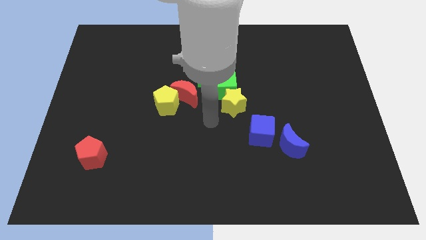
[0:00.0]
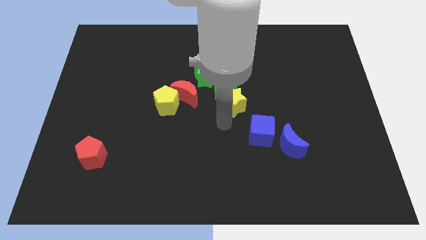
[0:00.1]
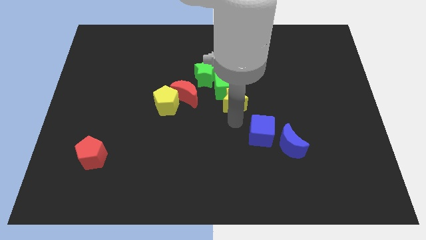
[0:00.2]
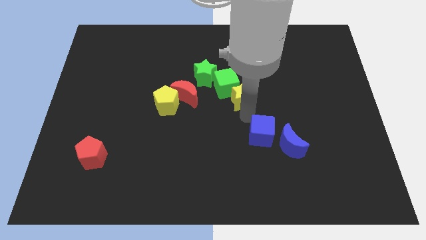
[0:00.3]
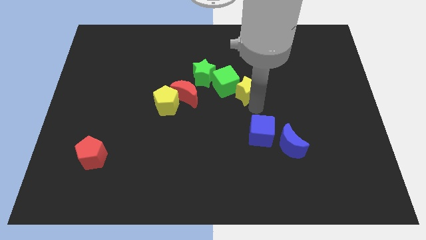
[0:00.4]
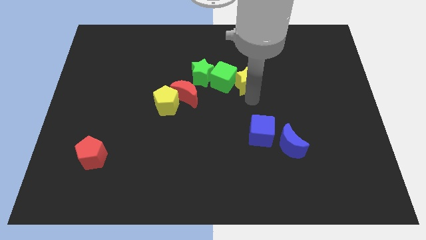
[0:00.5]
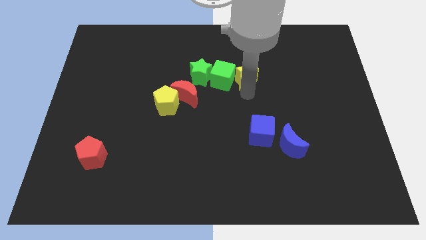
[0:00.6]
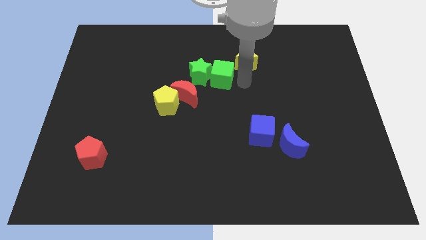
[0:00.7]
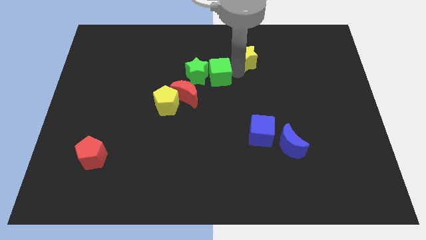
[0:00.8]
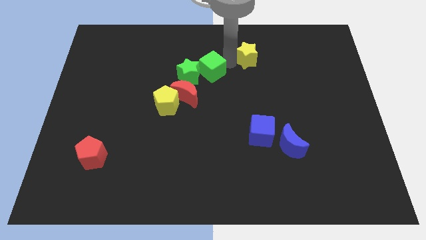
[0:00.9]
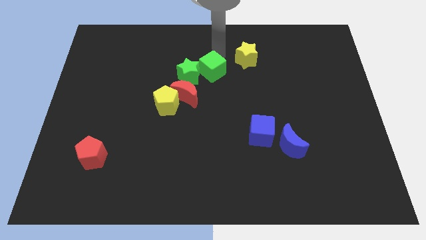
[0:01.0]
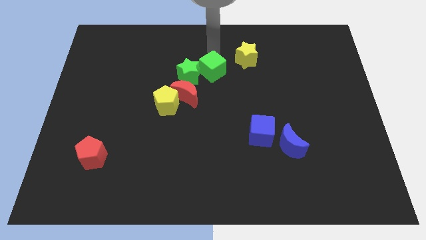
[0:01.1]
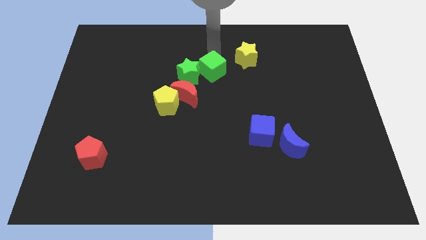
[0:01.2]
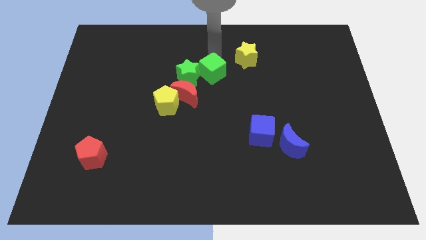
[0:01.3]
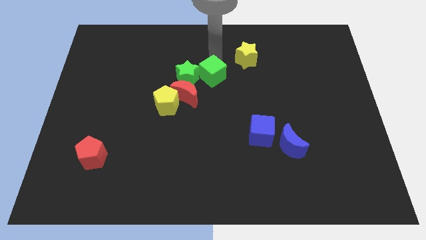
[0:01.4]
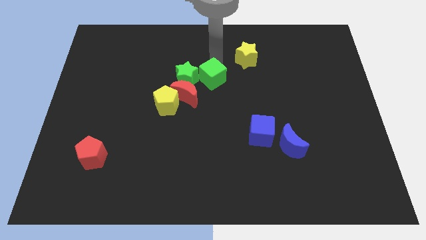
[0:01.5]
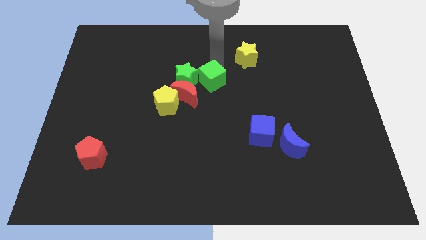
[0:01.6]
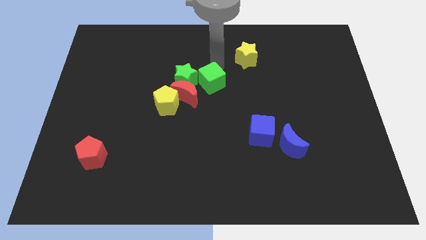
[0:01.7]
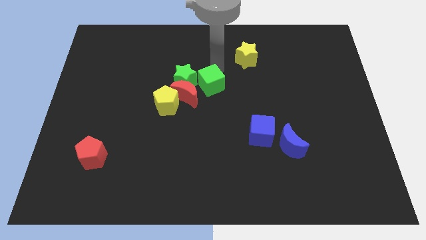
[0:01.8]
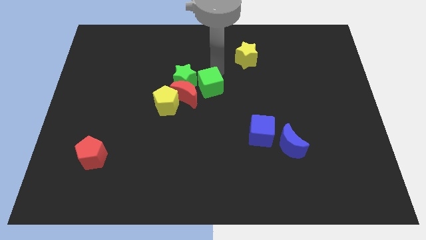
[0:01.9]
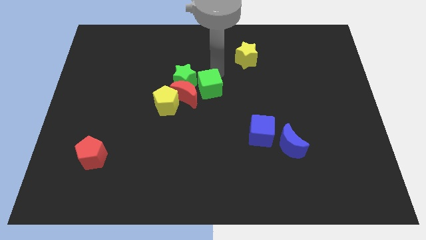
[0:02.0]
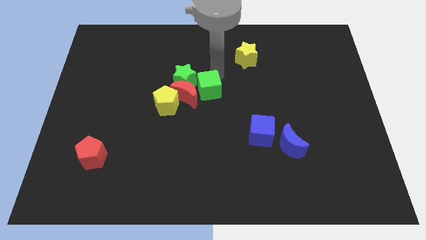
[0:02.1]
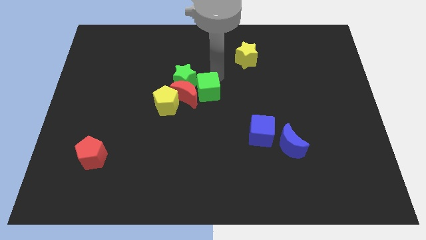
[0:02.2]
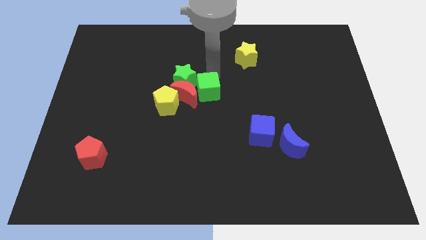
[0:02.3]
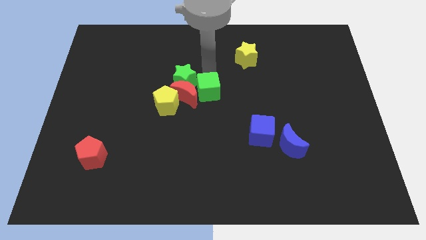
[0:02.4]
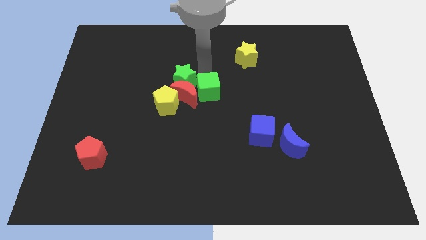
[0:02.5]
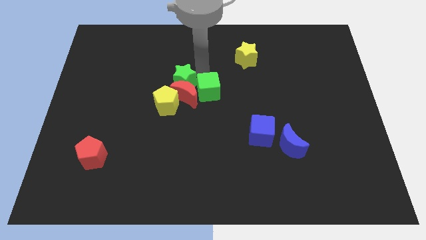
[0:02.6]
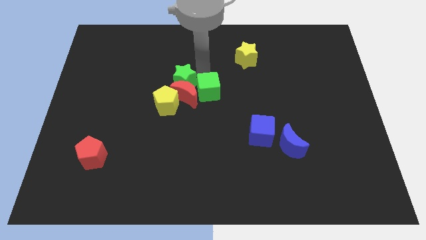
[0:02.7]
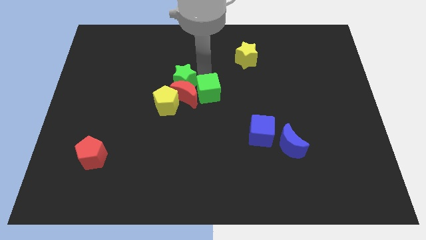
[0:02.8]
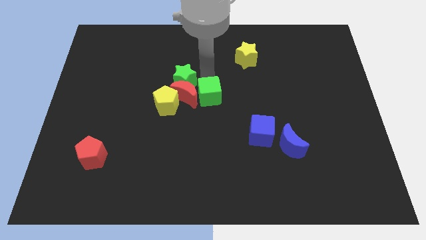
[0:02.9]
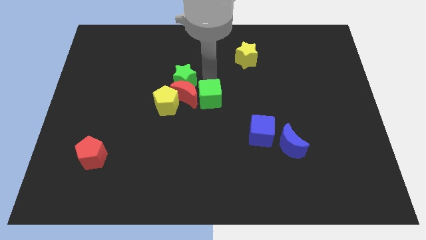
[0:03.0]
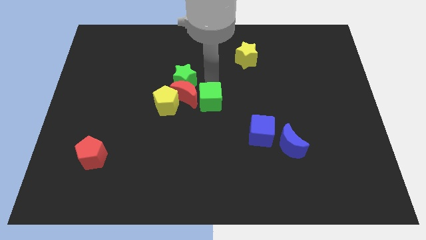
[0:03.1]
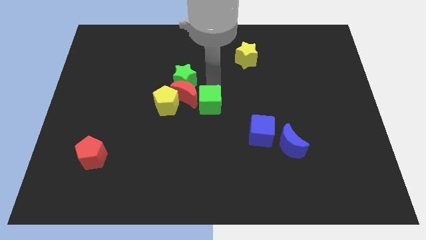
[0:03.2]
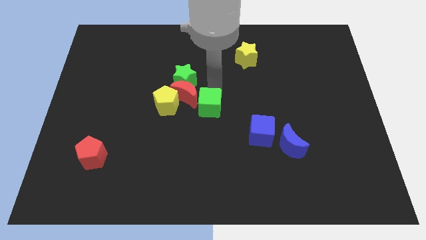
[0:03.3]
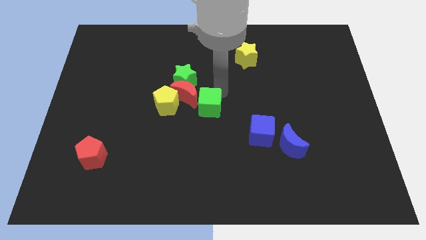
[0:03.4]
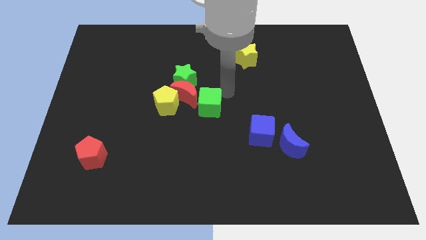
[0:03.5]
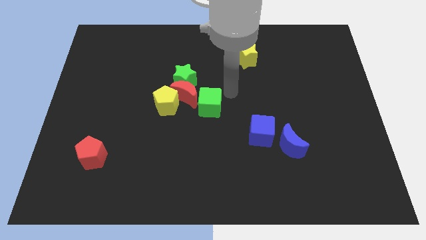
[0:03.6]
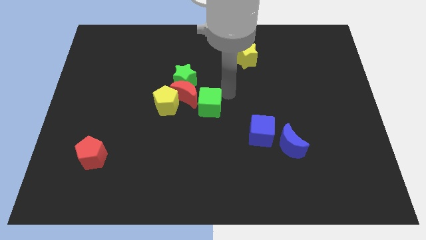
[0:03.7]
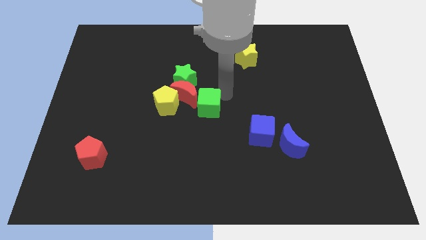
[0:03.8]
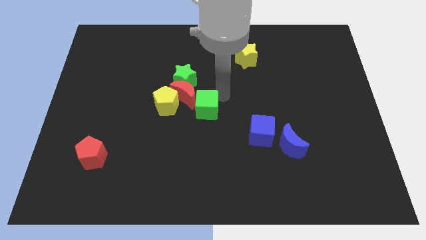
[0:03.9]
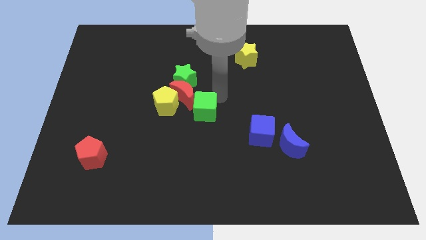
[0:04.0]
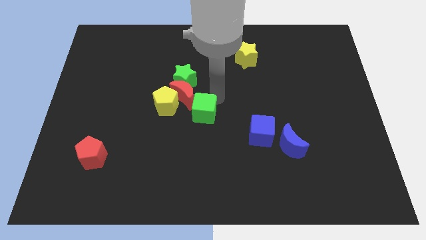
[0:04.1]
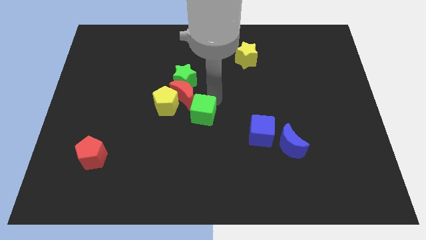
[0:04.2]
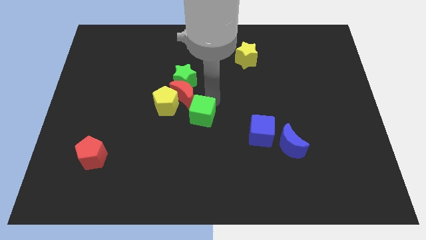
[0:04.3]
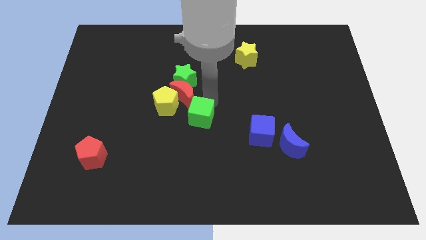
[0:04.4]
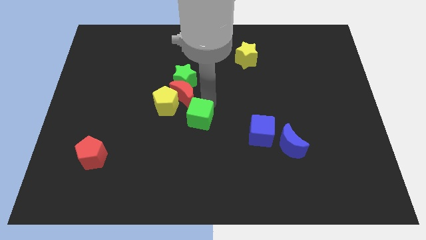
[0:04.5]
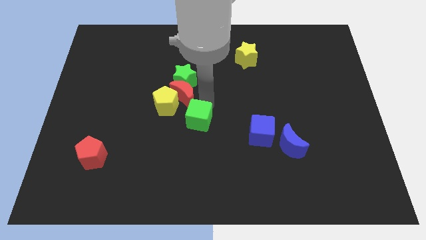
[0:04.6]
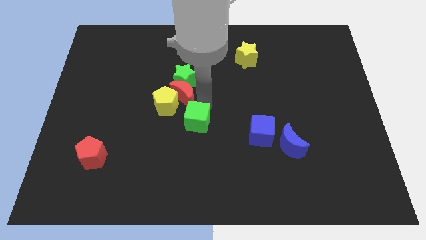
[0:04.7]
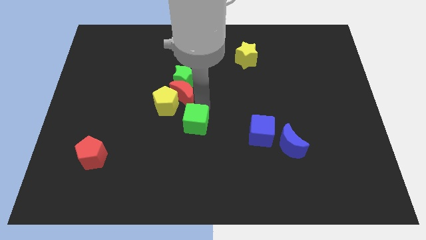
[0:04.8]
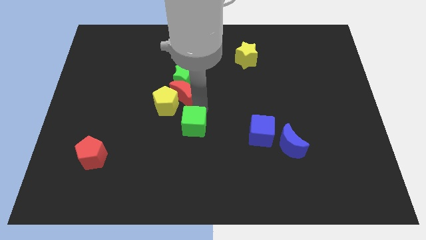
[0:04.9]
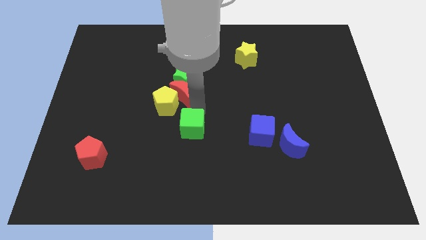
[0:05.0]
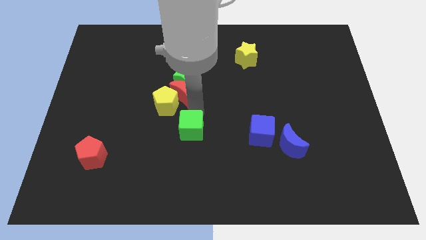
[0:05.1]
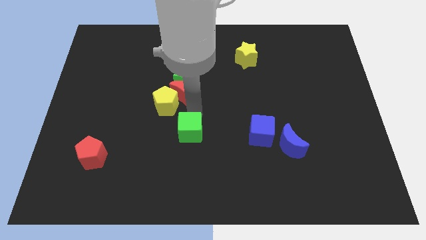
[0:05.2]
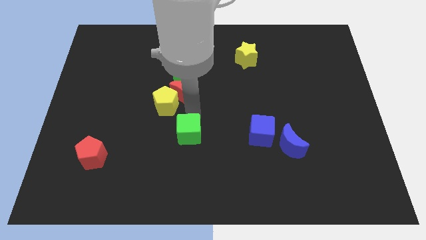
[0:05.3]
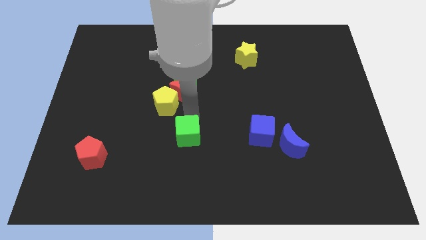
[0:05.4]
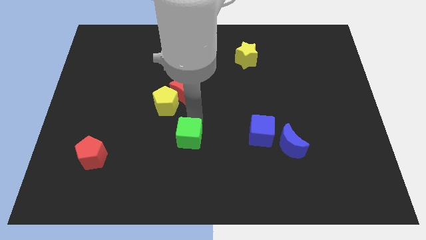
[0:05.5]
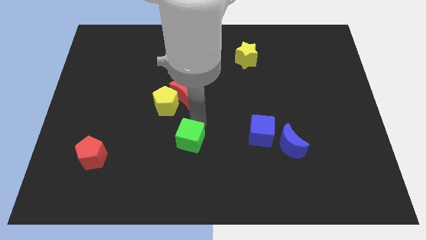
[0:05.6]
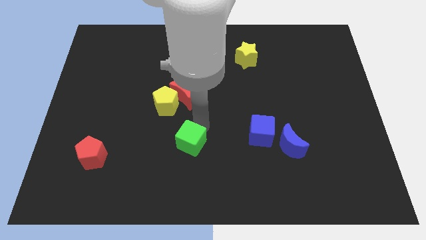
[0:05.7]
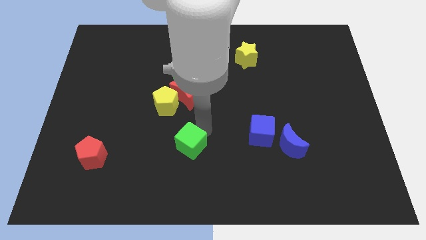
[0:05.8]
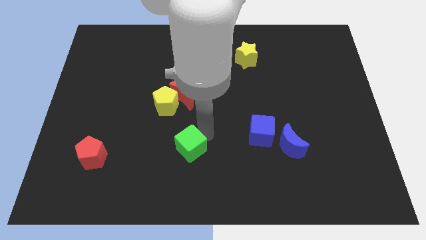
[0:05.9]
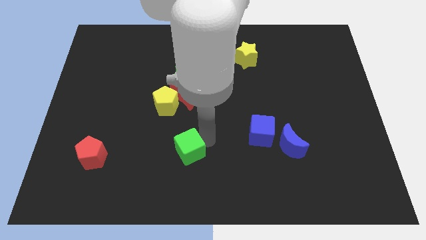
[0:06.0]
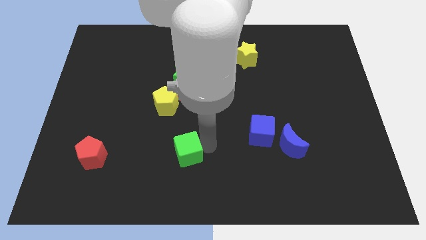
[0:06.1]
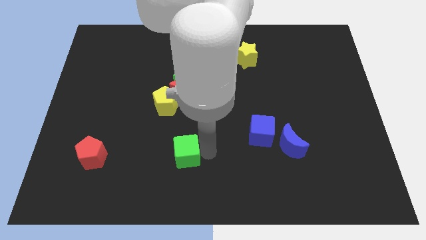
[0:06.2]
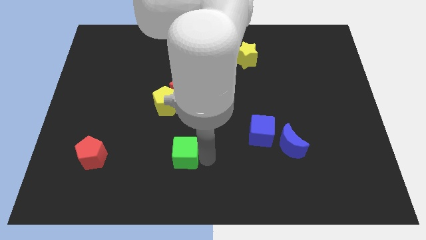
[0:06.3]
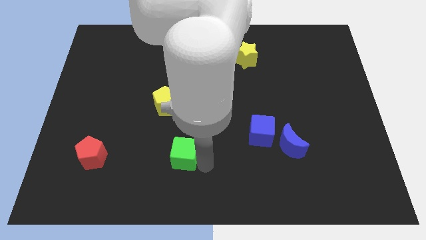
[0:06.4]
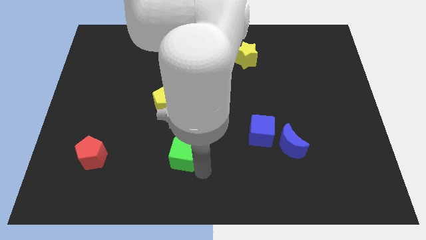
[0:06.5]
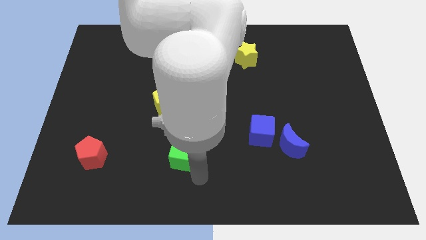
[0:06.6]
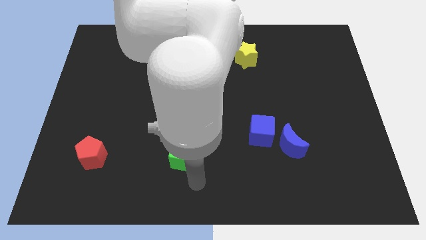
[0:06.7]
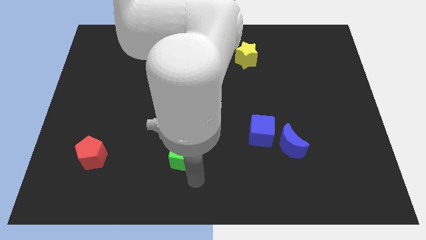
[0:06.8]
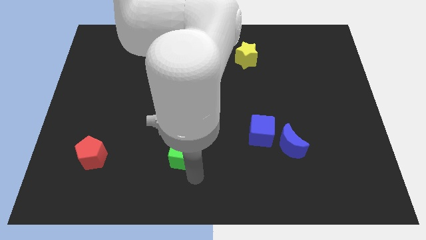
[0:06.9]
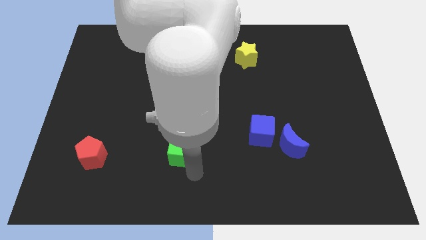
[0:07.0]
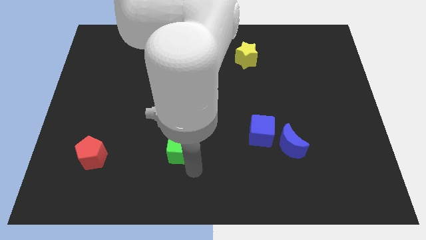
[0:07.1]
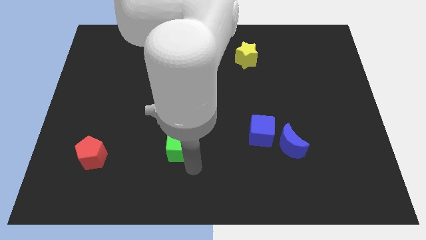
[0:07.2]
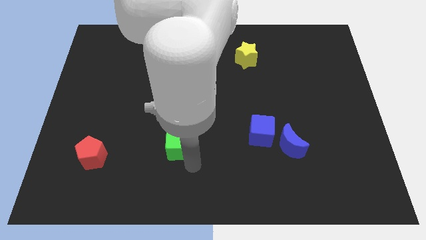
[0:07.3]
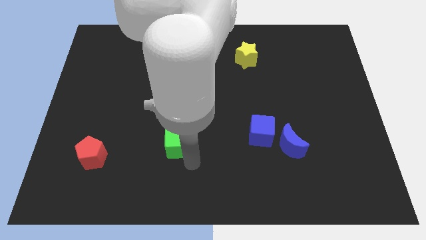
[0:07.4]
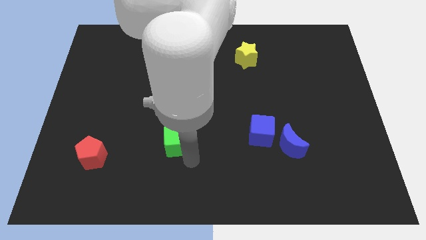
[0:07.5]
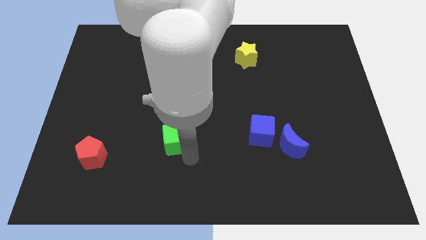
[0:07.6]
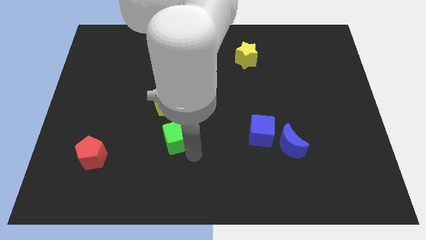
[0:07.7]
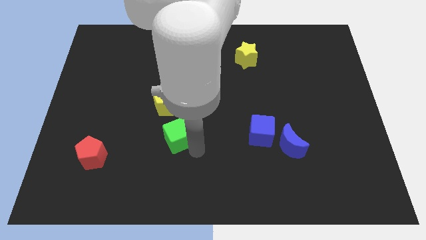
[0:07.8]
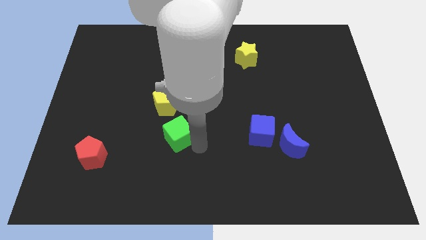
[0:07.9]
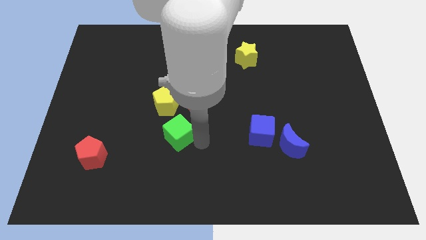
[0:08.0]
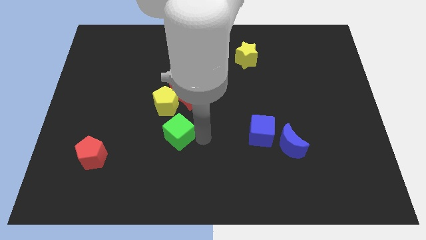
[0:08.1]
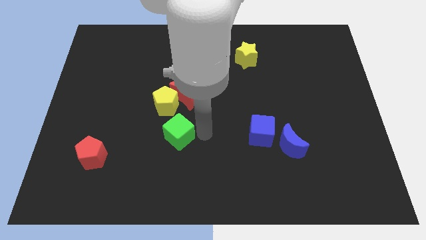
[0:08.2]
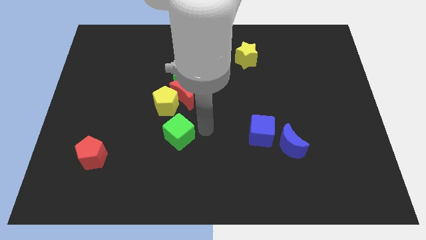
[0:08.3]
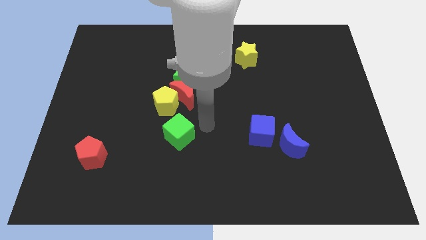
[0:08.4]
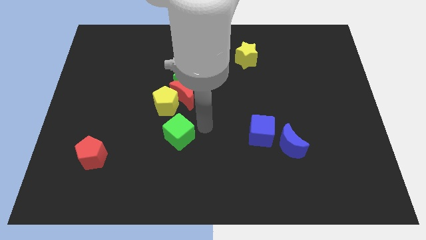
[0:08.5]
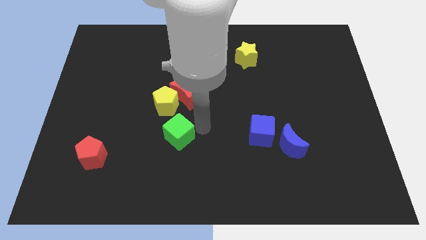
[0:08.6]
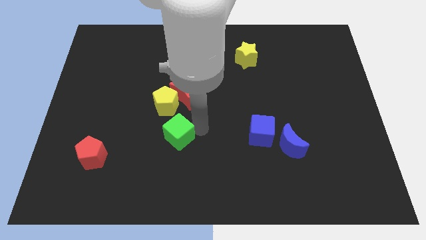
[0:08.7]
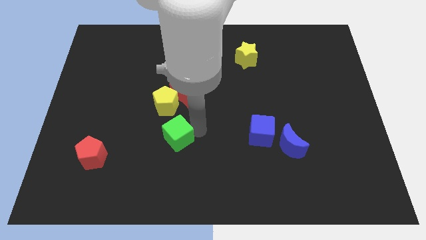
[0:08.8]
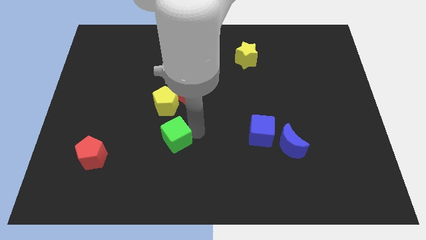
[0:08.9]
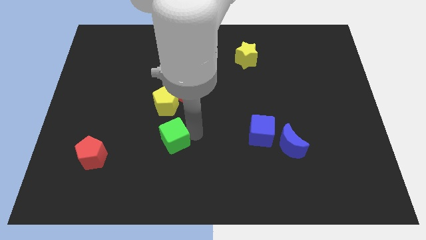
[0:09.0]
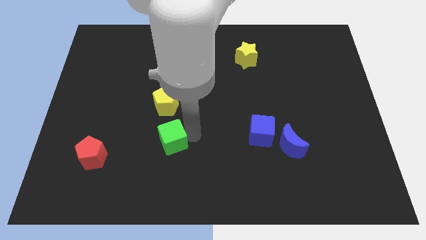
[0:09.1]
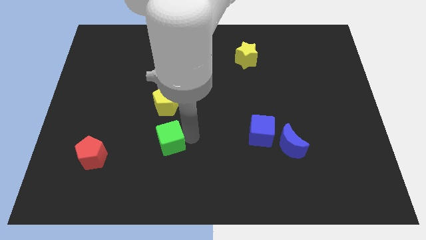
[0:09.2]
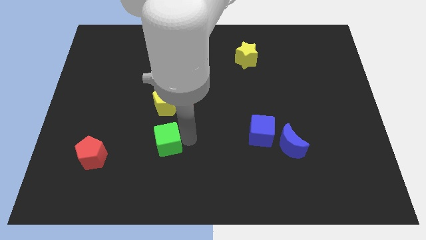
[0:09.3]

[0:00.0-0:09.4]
move the green cube diagonally down and to the left
